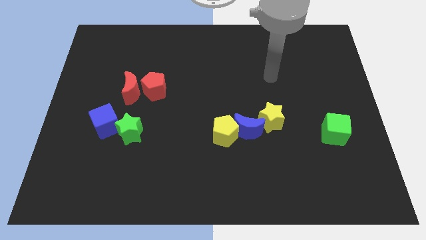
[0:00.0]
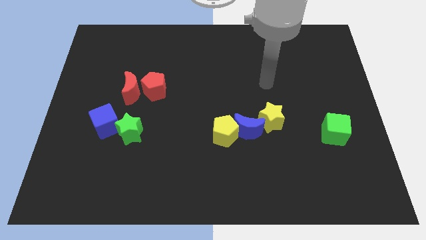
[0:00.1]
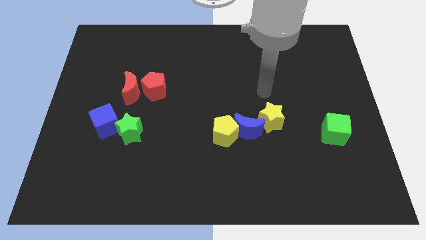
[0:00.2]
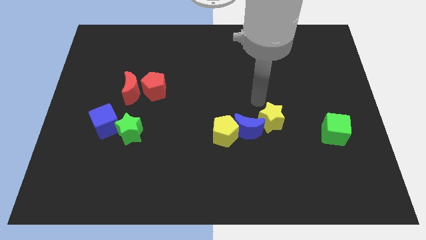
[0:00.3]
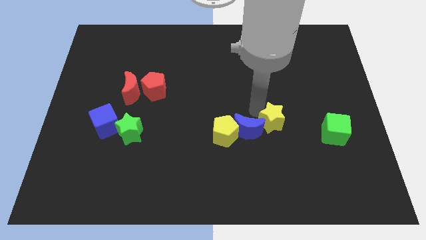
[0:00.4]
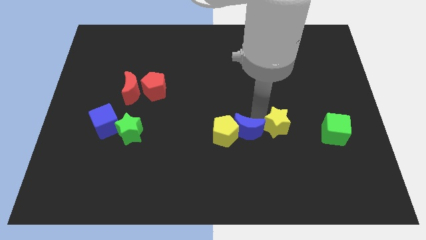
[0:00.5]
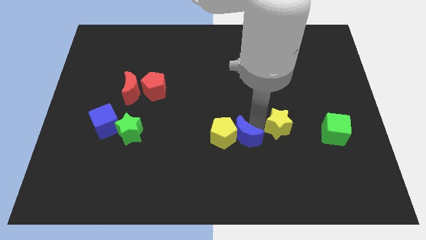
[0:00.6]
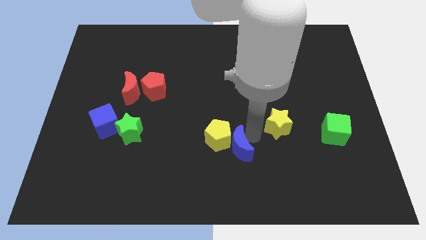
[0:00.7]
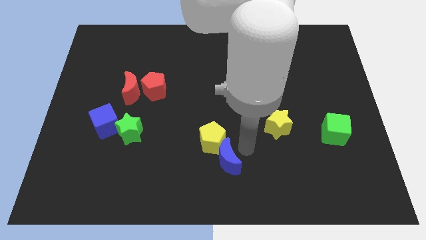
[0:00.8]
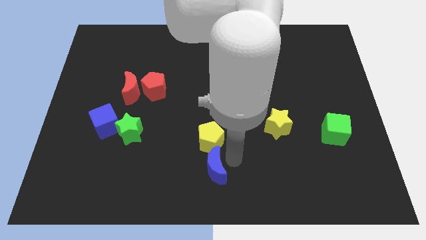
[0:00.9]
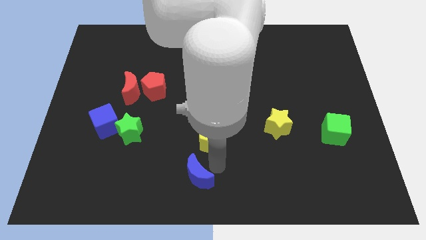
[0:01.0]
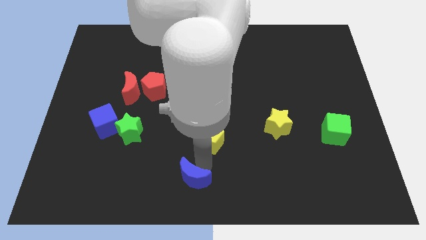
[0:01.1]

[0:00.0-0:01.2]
separate the yellow pentagon from the blue moon

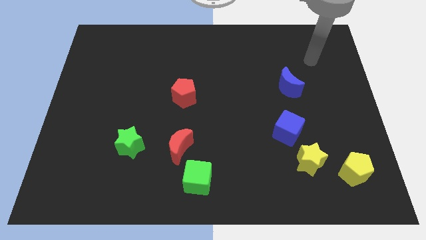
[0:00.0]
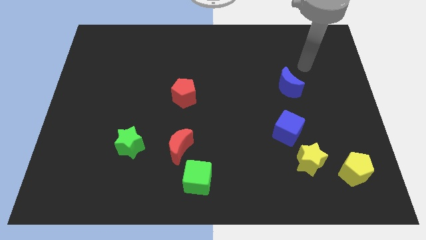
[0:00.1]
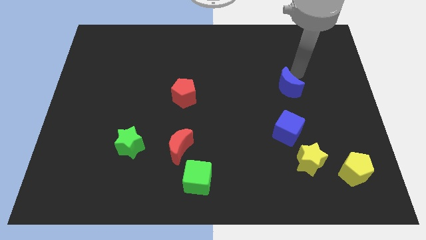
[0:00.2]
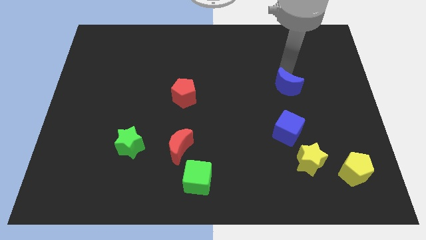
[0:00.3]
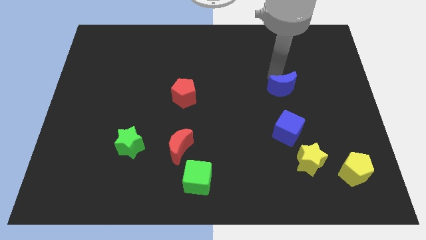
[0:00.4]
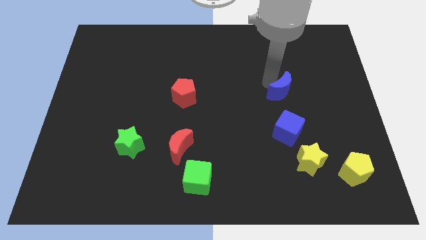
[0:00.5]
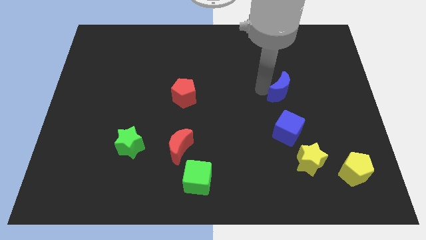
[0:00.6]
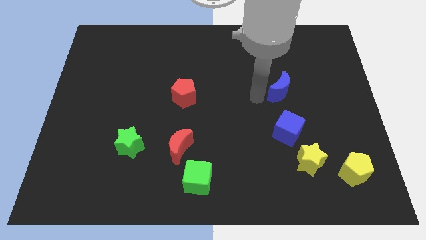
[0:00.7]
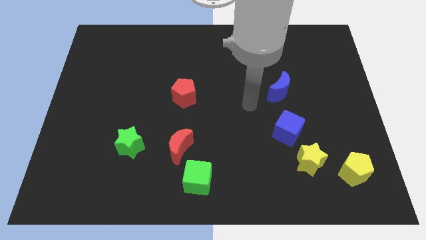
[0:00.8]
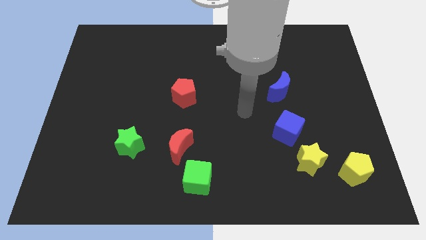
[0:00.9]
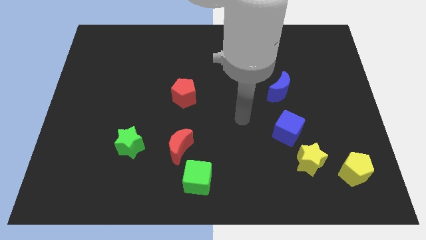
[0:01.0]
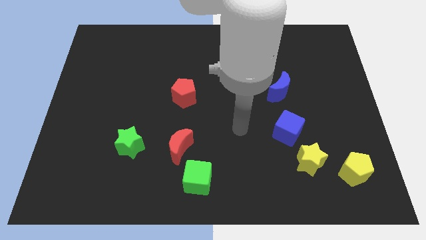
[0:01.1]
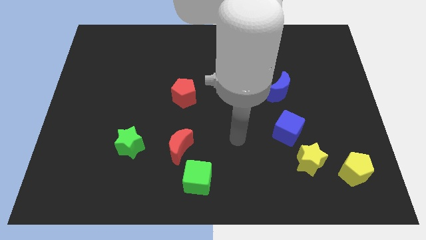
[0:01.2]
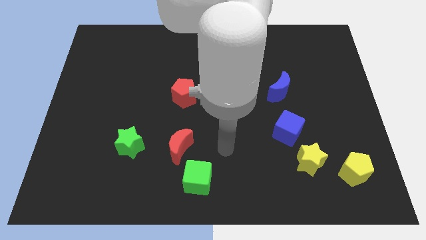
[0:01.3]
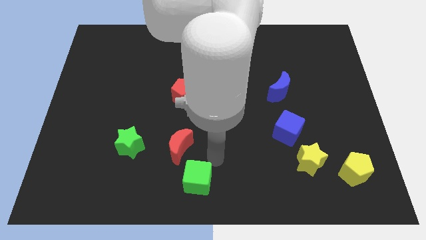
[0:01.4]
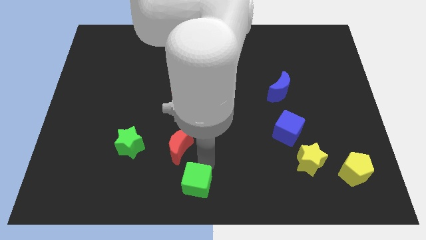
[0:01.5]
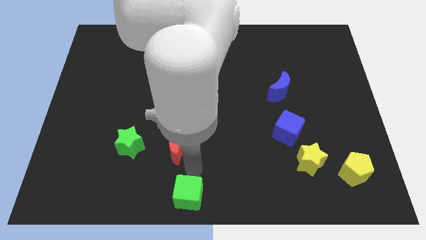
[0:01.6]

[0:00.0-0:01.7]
move the red moon away from the green cube

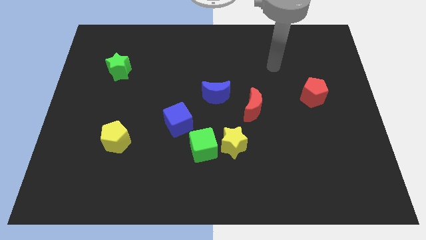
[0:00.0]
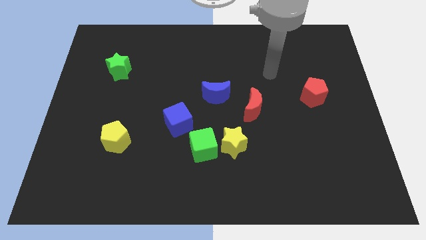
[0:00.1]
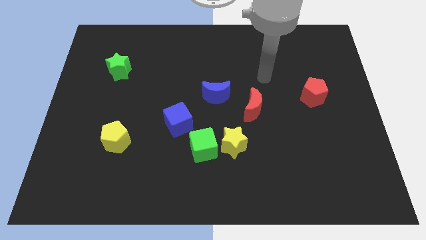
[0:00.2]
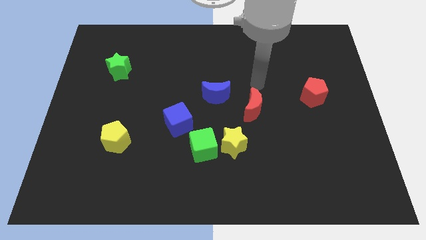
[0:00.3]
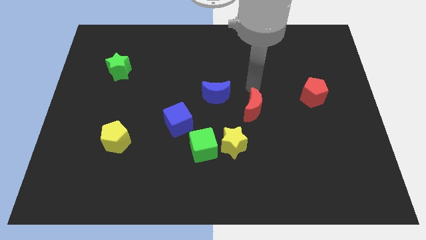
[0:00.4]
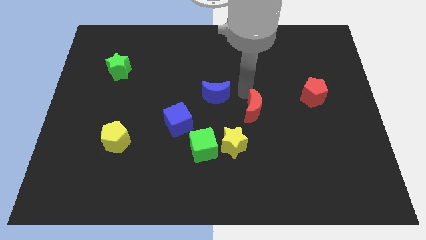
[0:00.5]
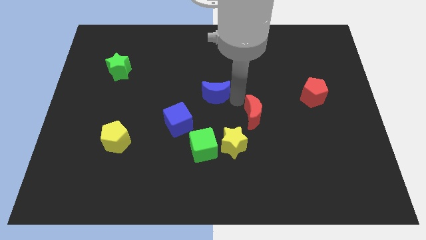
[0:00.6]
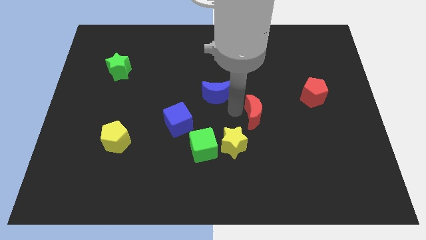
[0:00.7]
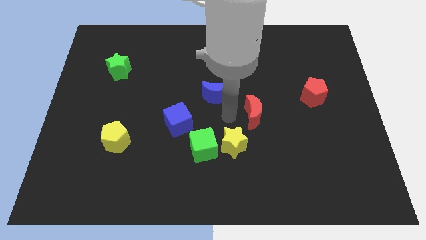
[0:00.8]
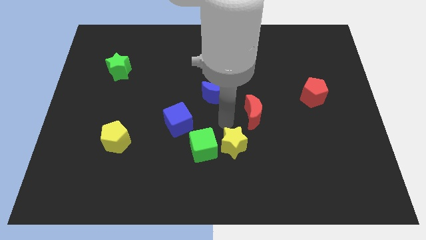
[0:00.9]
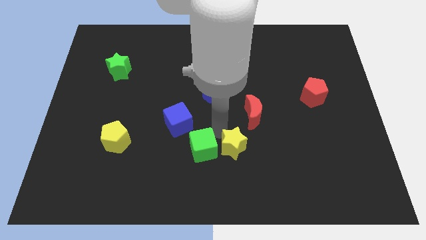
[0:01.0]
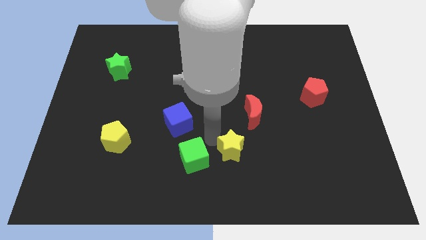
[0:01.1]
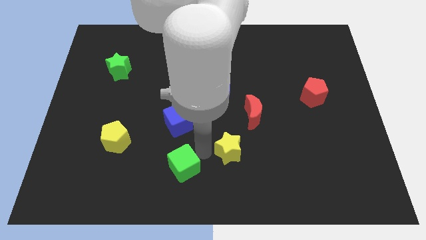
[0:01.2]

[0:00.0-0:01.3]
move the yellow star away from the green cube

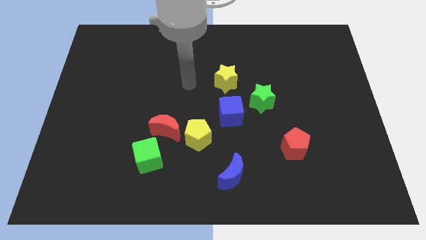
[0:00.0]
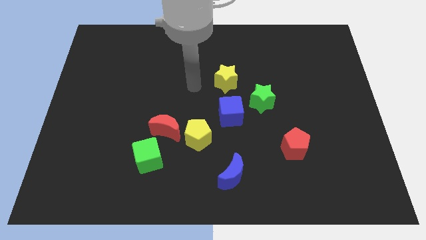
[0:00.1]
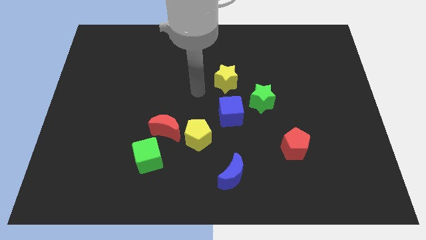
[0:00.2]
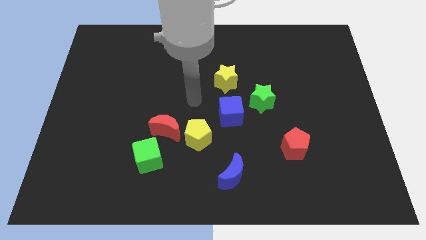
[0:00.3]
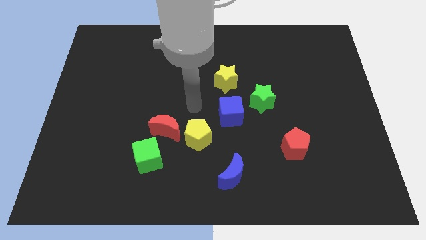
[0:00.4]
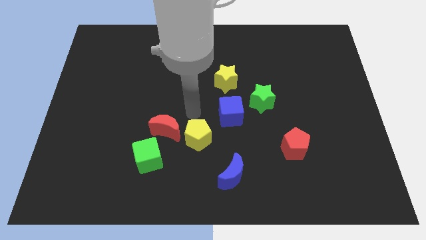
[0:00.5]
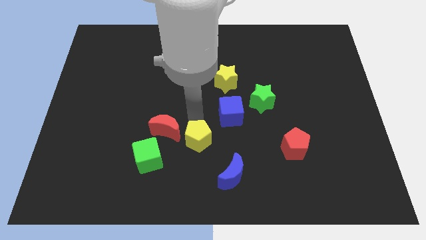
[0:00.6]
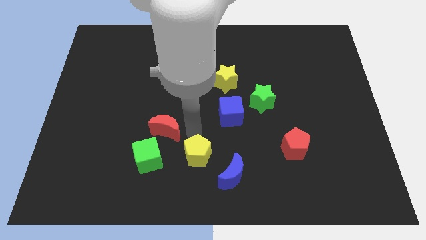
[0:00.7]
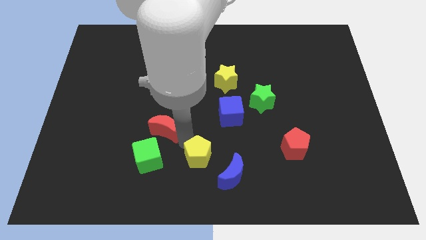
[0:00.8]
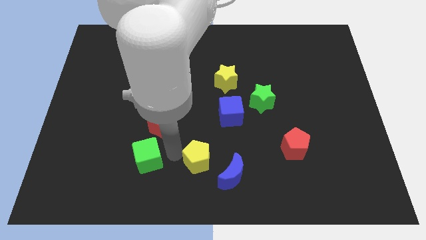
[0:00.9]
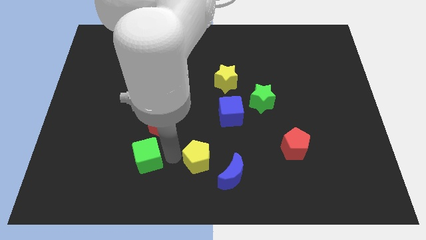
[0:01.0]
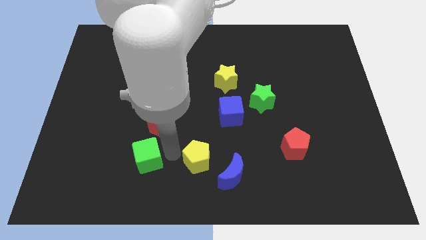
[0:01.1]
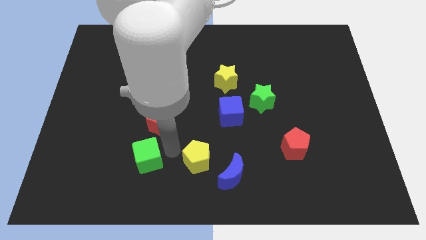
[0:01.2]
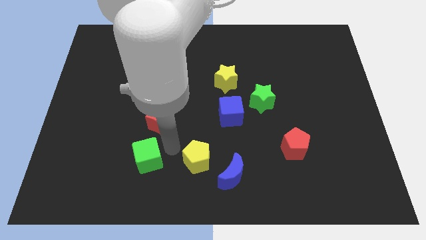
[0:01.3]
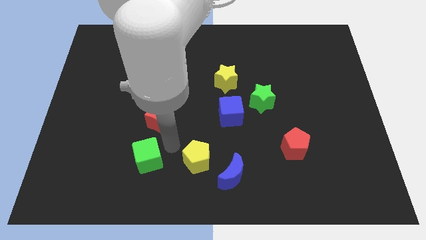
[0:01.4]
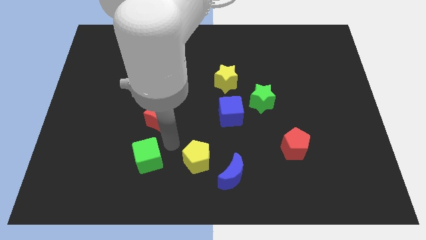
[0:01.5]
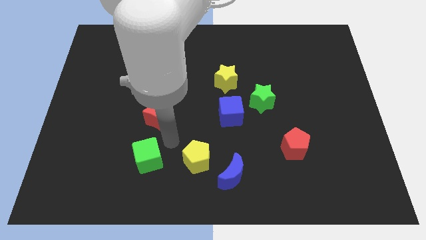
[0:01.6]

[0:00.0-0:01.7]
pull the red moon apart from the yellow pentagon and green cube

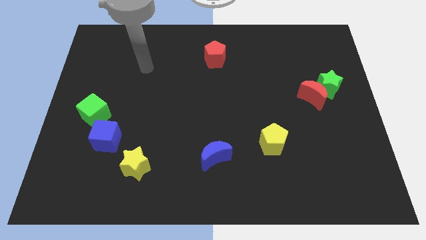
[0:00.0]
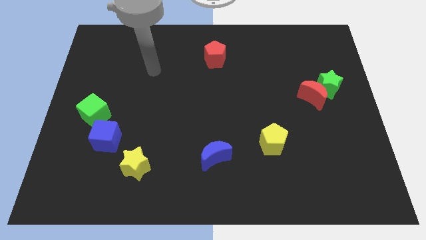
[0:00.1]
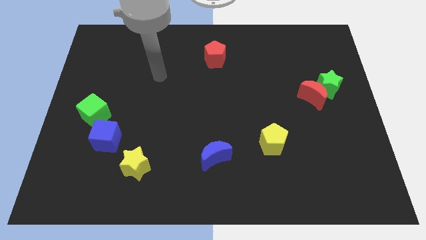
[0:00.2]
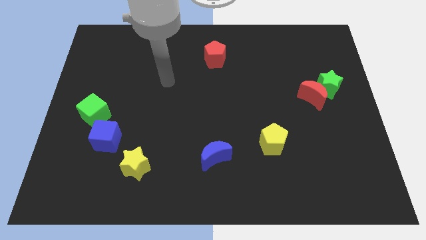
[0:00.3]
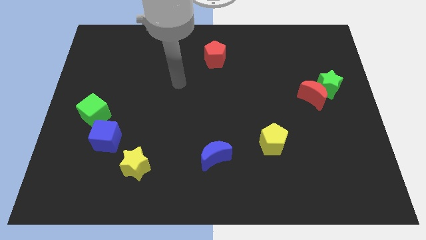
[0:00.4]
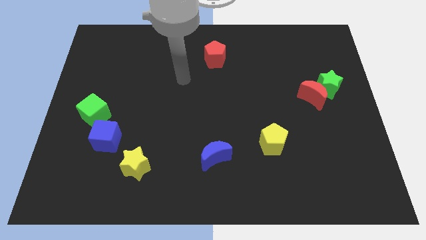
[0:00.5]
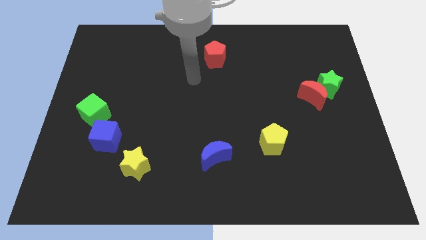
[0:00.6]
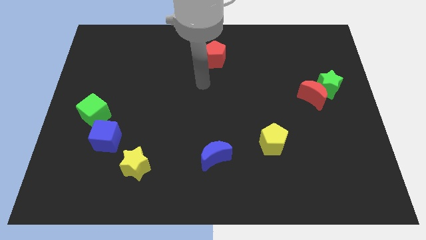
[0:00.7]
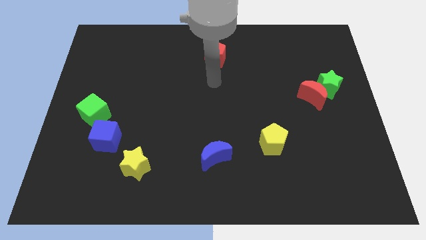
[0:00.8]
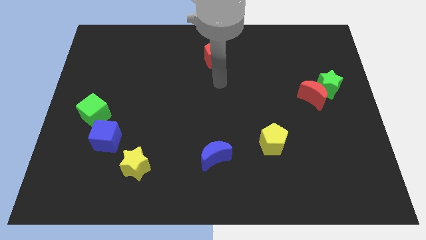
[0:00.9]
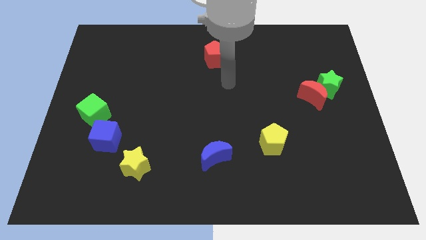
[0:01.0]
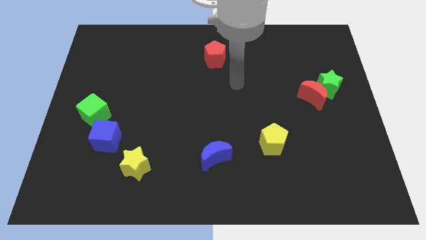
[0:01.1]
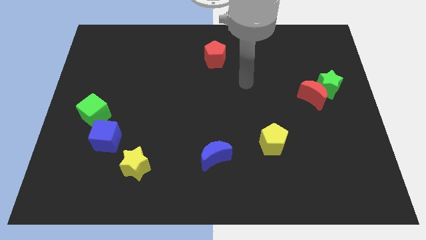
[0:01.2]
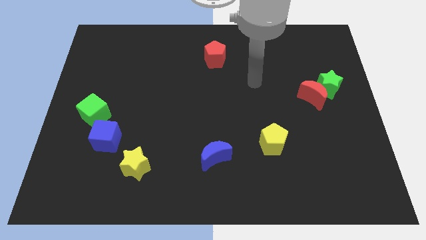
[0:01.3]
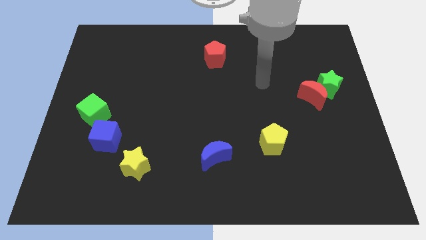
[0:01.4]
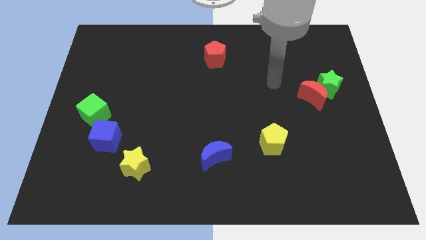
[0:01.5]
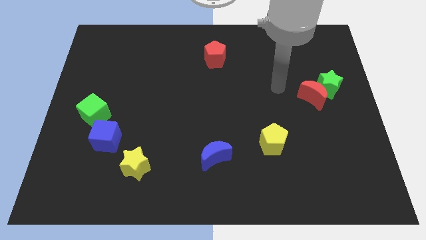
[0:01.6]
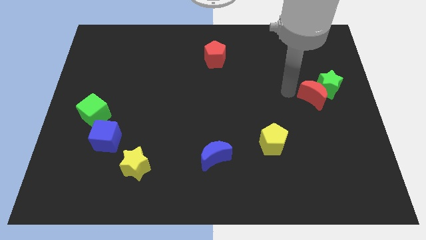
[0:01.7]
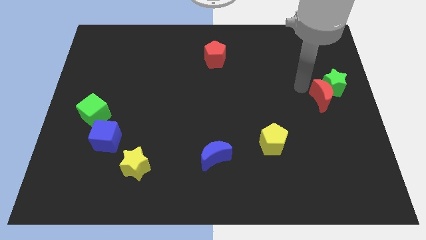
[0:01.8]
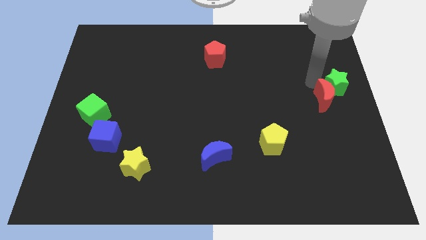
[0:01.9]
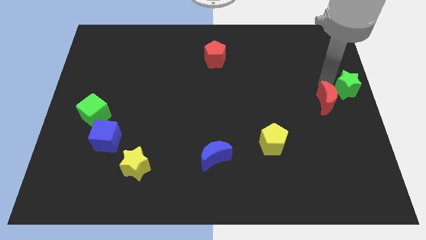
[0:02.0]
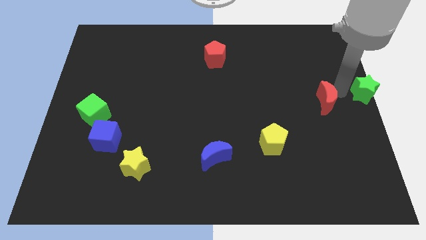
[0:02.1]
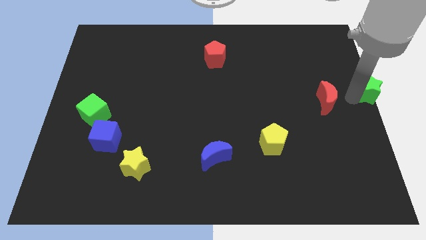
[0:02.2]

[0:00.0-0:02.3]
separate the red moon from the green star

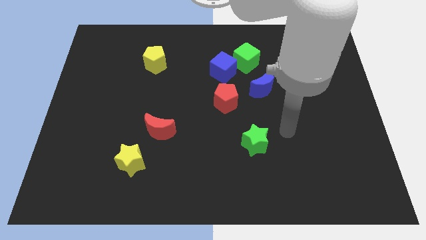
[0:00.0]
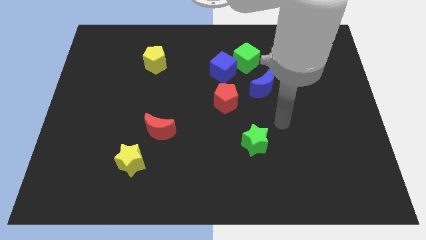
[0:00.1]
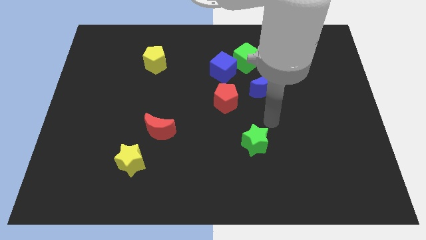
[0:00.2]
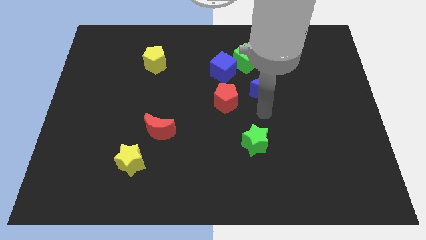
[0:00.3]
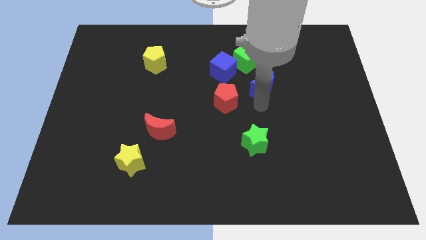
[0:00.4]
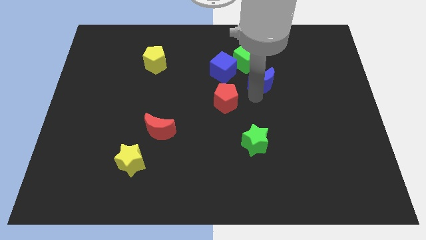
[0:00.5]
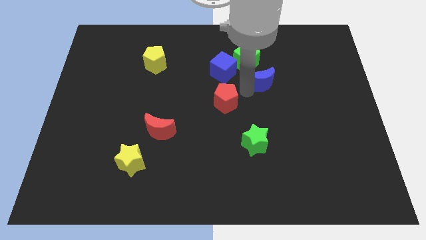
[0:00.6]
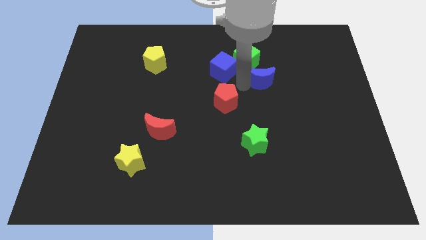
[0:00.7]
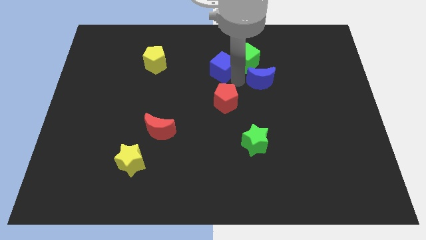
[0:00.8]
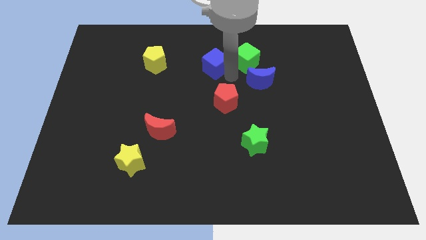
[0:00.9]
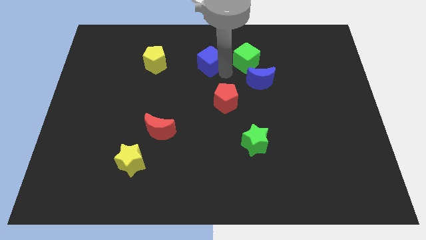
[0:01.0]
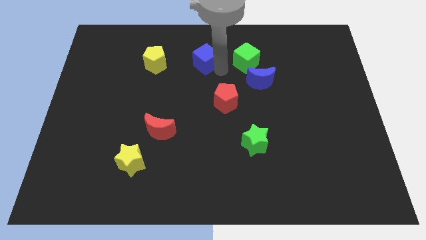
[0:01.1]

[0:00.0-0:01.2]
move the blue cube away from the green cube and red pentagon
